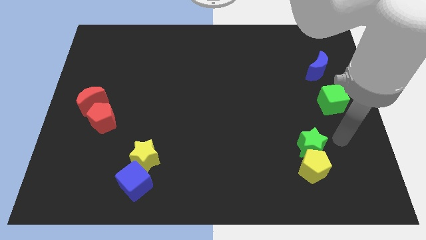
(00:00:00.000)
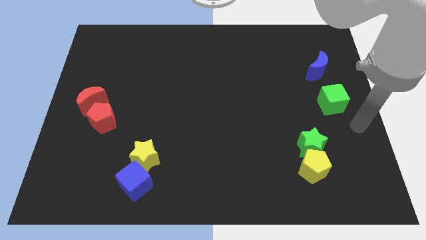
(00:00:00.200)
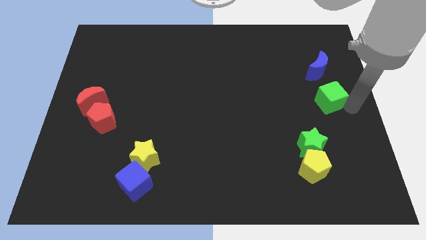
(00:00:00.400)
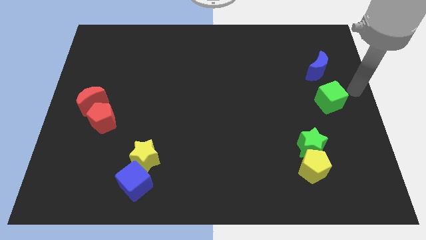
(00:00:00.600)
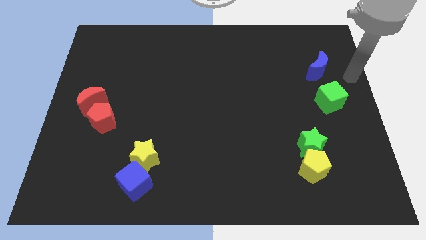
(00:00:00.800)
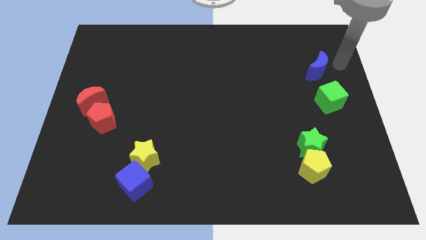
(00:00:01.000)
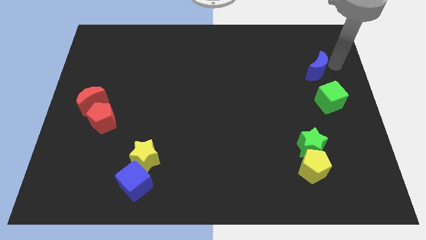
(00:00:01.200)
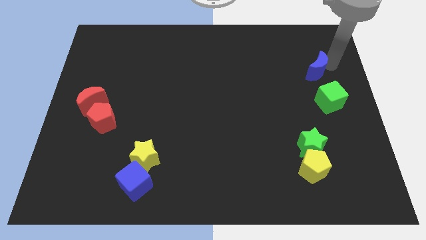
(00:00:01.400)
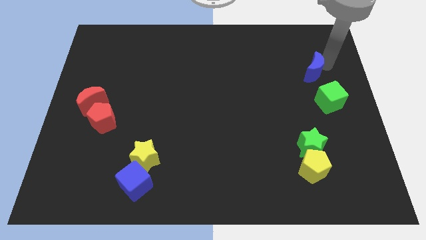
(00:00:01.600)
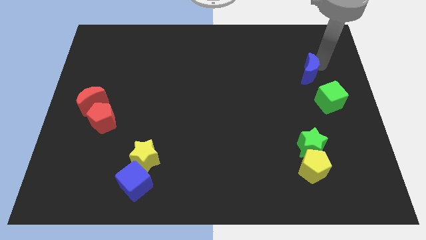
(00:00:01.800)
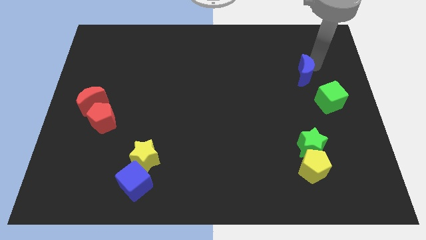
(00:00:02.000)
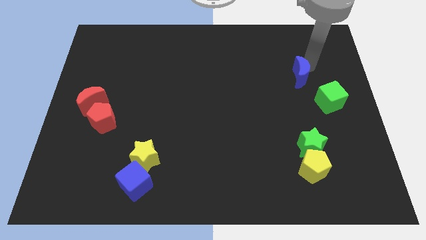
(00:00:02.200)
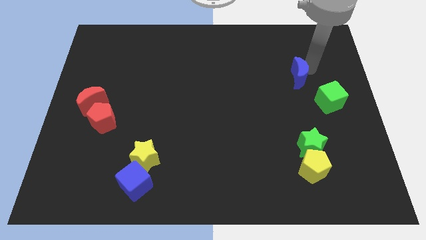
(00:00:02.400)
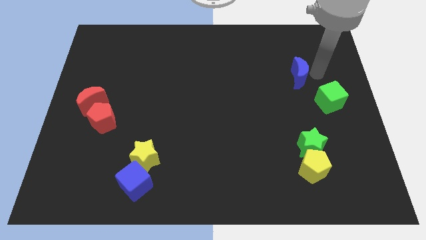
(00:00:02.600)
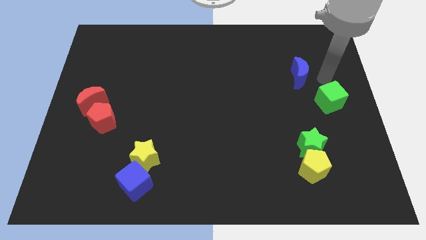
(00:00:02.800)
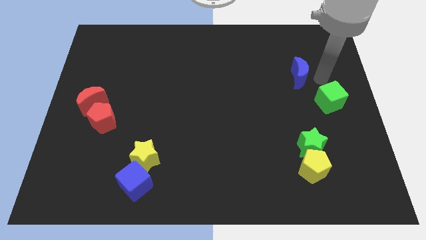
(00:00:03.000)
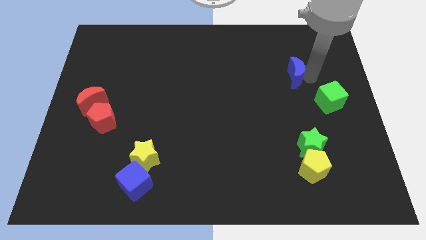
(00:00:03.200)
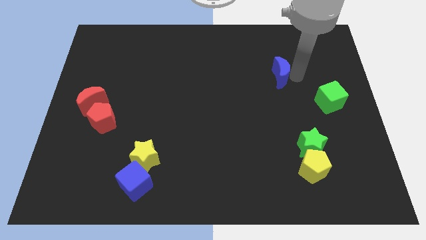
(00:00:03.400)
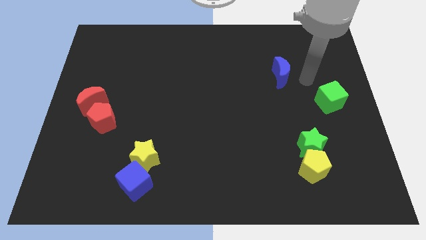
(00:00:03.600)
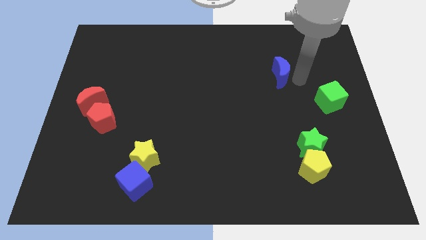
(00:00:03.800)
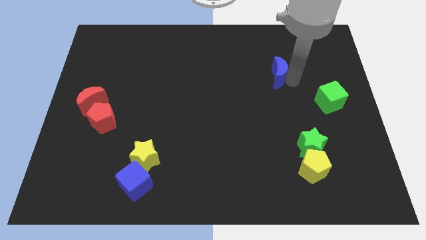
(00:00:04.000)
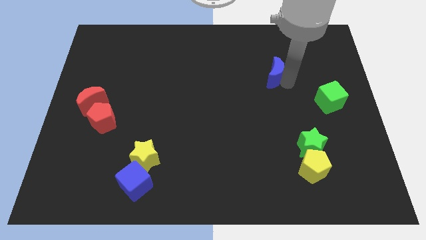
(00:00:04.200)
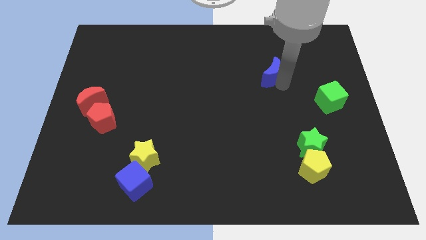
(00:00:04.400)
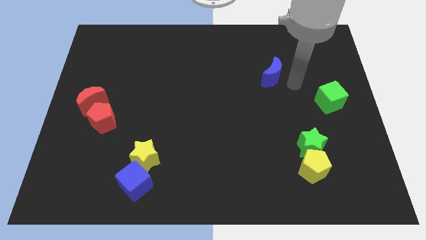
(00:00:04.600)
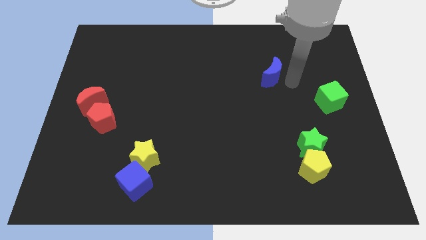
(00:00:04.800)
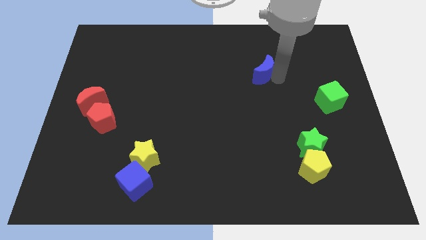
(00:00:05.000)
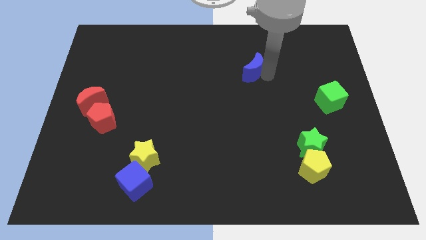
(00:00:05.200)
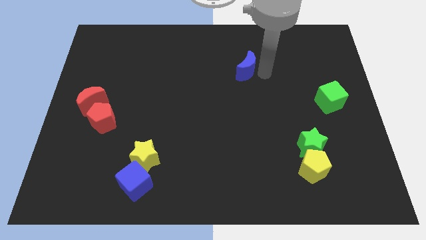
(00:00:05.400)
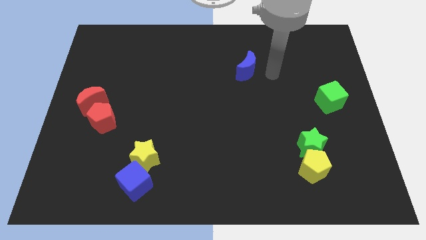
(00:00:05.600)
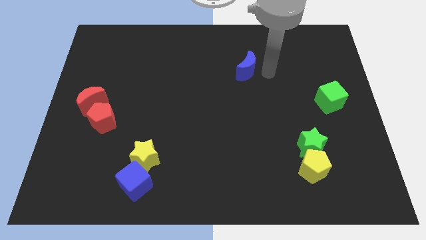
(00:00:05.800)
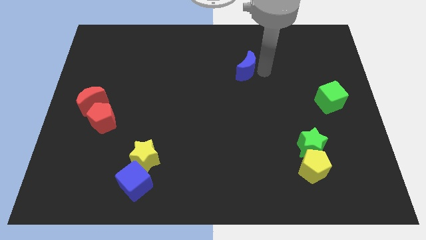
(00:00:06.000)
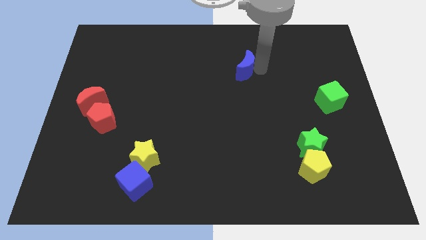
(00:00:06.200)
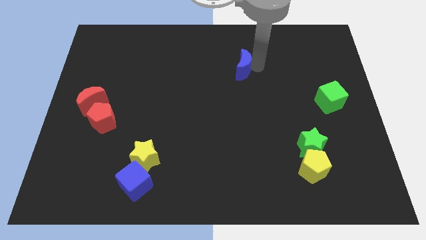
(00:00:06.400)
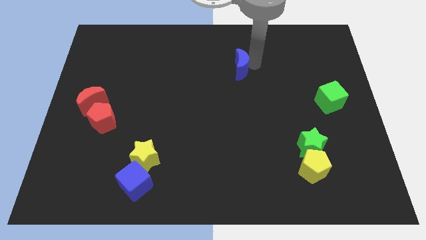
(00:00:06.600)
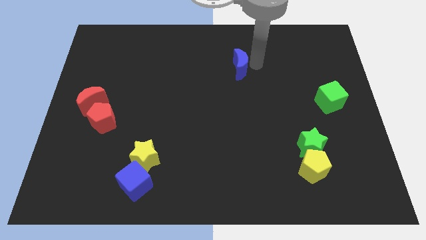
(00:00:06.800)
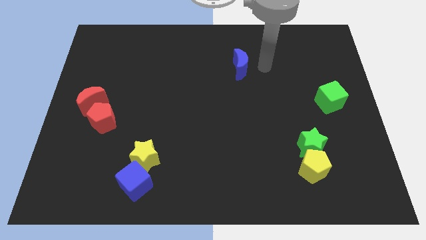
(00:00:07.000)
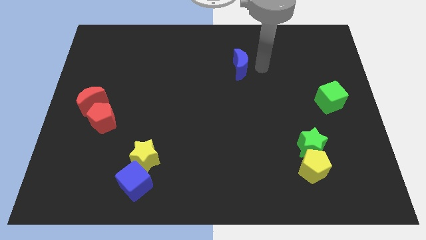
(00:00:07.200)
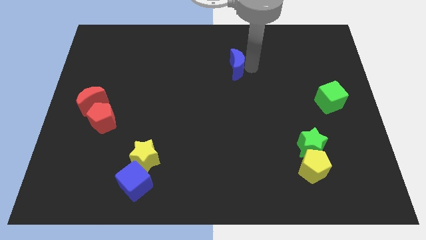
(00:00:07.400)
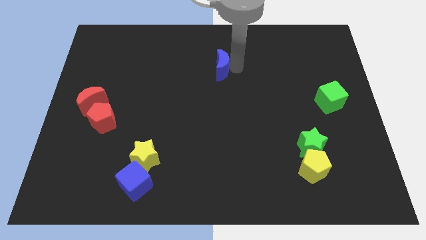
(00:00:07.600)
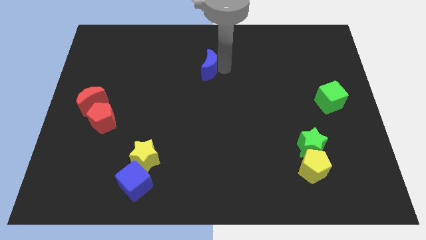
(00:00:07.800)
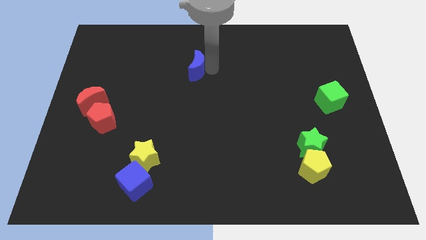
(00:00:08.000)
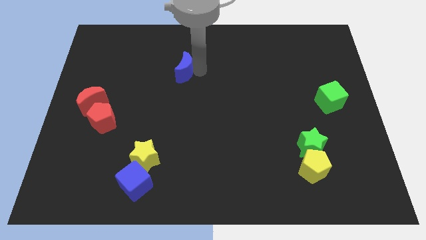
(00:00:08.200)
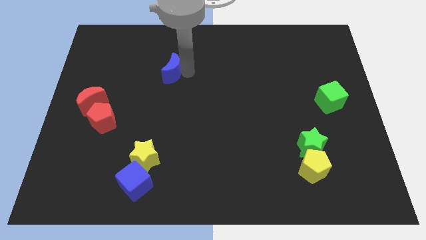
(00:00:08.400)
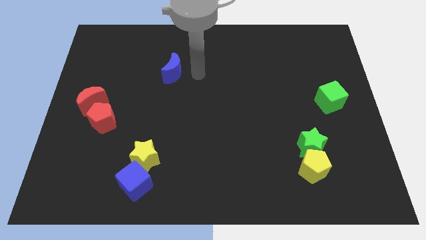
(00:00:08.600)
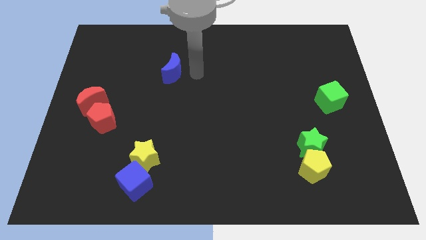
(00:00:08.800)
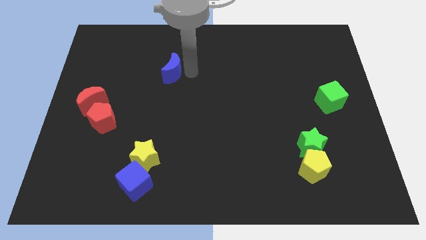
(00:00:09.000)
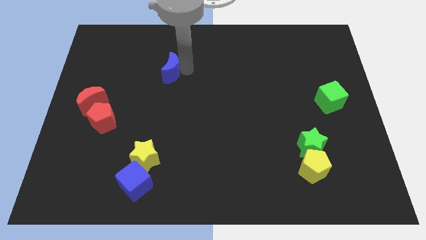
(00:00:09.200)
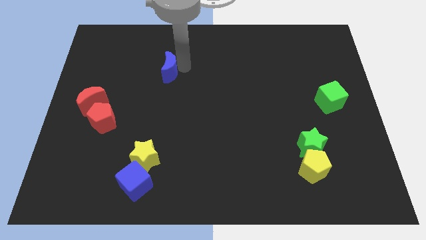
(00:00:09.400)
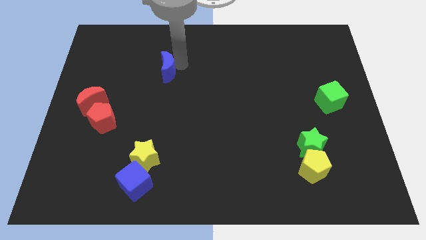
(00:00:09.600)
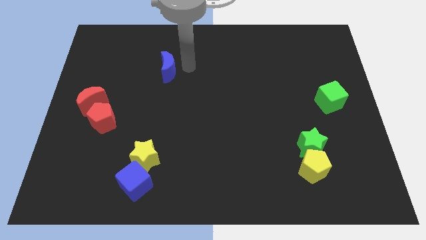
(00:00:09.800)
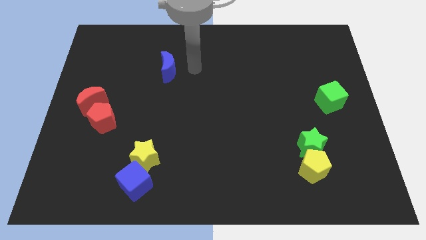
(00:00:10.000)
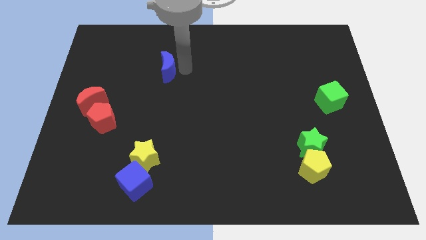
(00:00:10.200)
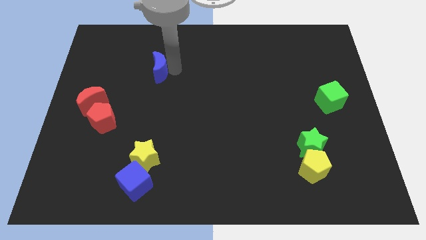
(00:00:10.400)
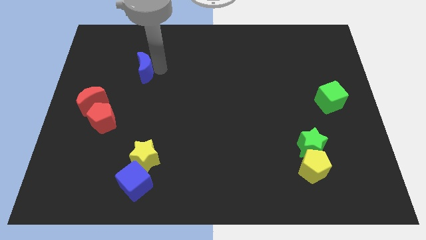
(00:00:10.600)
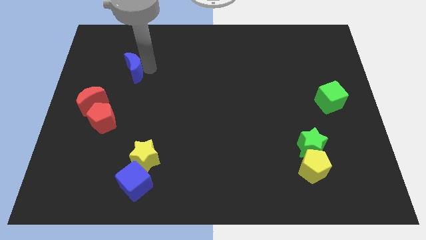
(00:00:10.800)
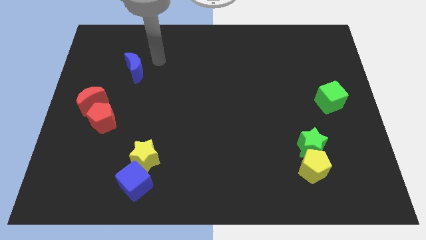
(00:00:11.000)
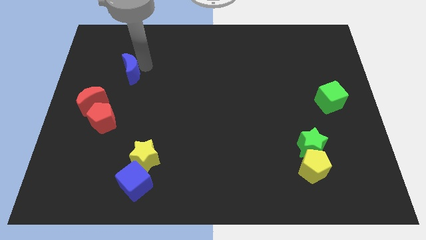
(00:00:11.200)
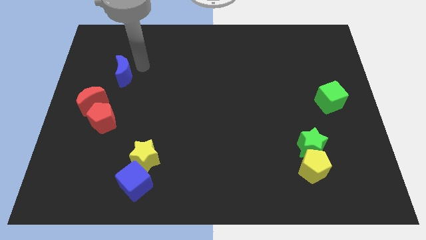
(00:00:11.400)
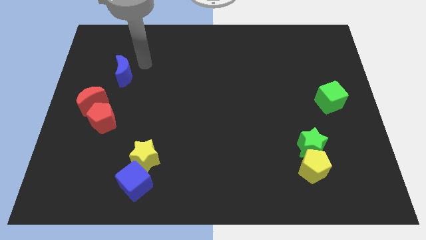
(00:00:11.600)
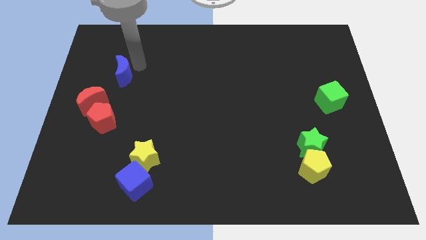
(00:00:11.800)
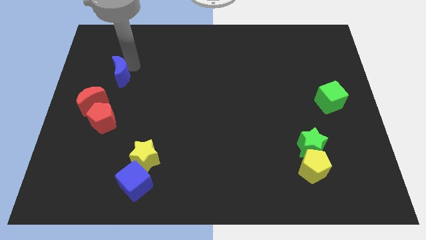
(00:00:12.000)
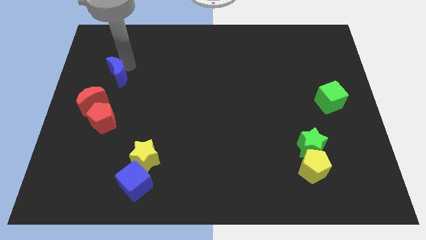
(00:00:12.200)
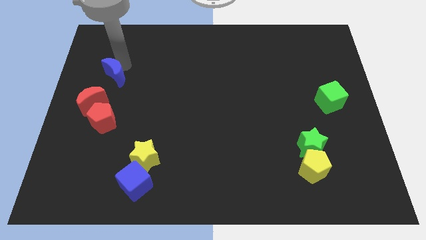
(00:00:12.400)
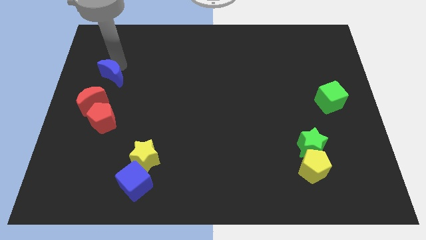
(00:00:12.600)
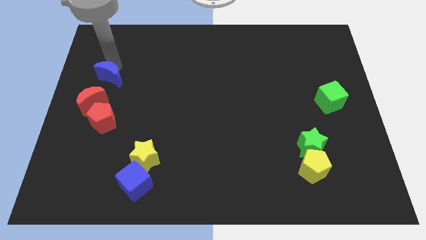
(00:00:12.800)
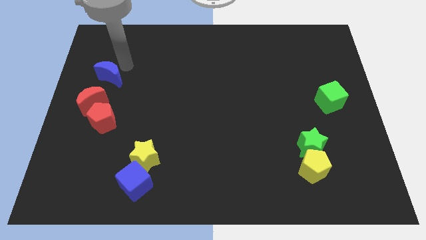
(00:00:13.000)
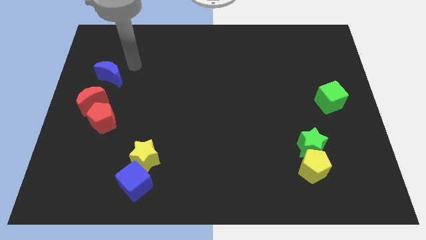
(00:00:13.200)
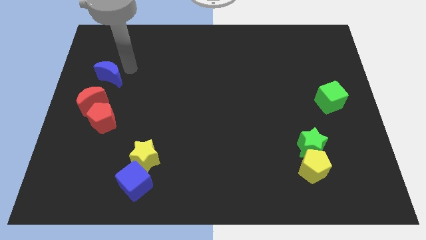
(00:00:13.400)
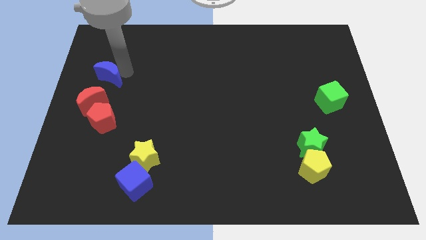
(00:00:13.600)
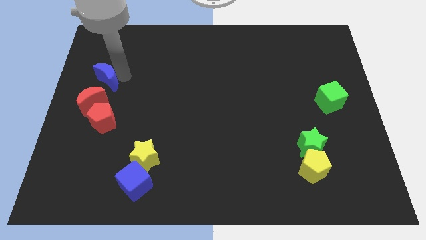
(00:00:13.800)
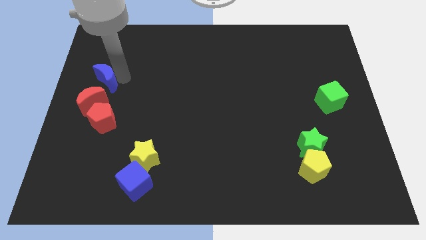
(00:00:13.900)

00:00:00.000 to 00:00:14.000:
push the blue moon to the left side

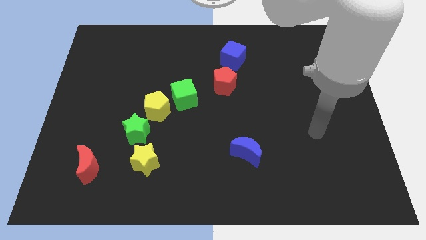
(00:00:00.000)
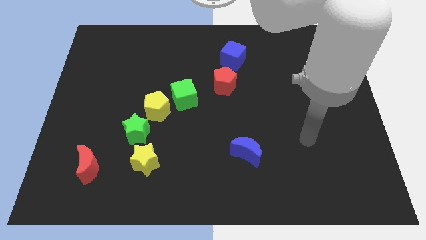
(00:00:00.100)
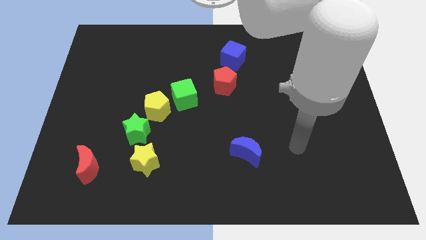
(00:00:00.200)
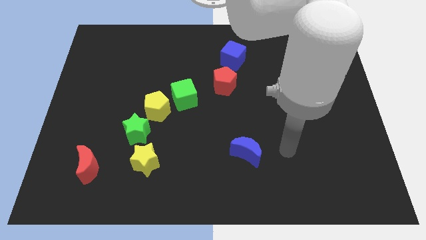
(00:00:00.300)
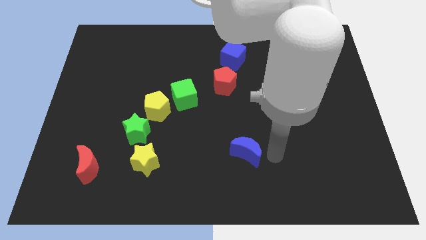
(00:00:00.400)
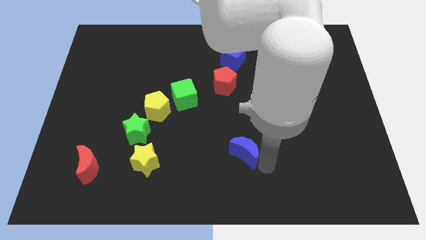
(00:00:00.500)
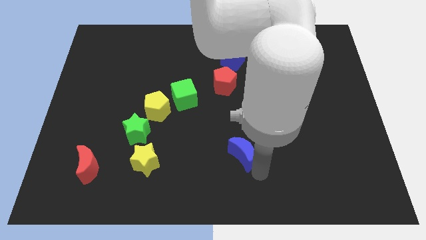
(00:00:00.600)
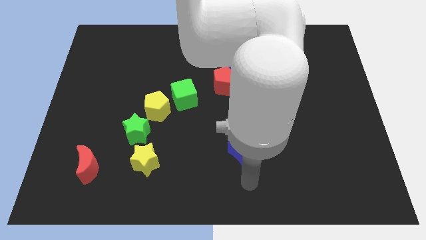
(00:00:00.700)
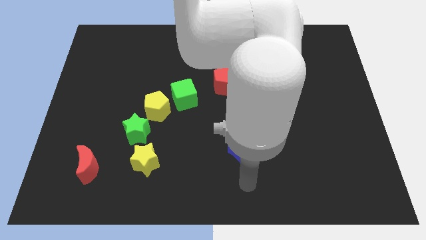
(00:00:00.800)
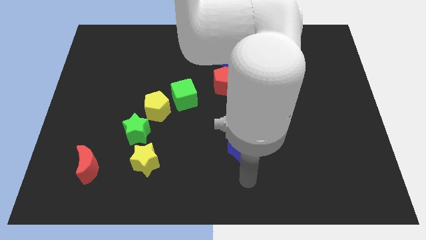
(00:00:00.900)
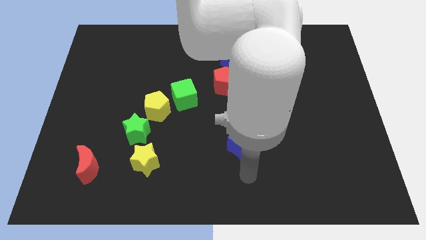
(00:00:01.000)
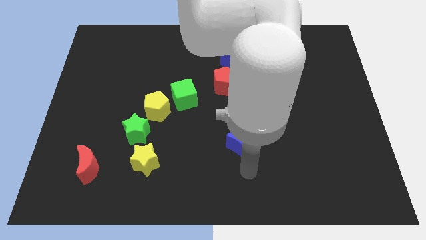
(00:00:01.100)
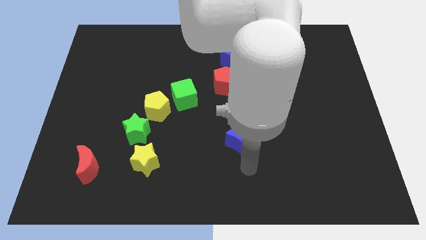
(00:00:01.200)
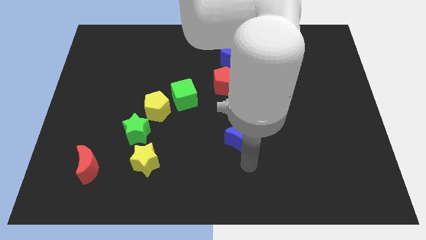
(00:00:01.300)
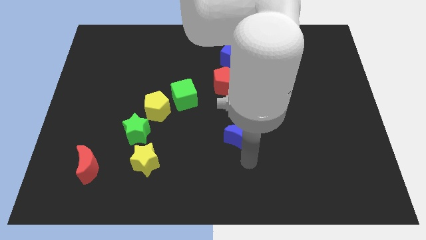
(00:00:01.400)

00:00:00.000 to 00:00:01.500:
move the blue moon to the center
